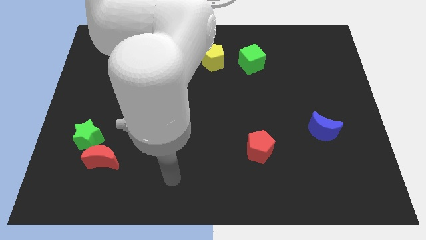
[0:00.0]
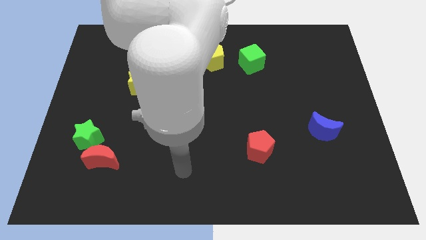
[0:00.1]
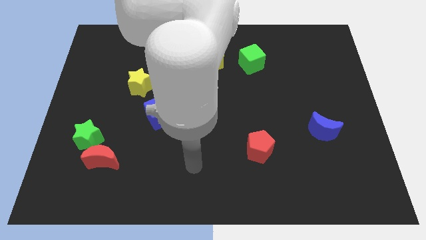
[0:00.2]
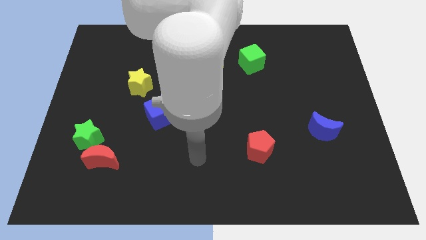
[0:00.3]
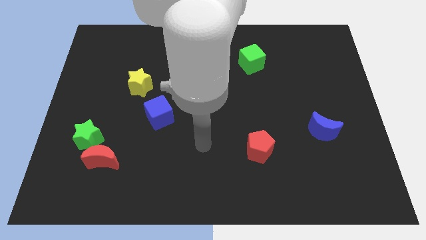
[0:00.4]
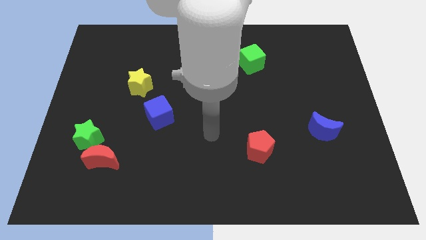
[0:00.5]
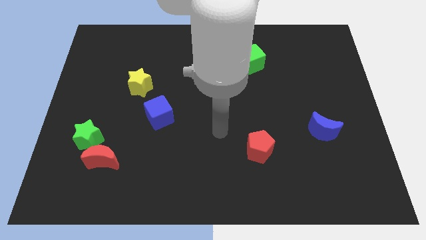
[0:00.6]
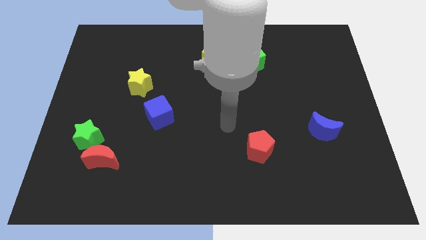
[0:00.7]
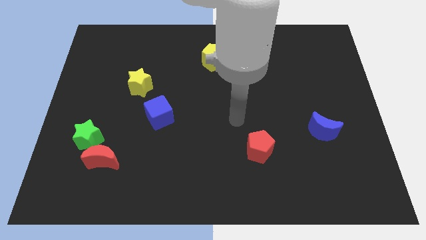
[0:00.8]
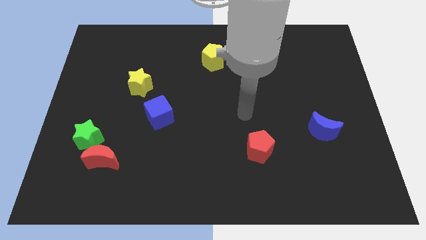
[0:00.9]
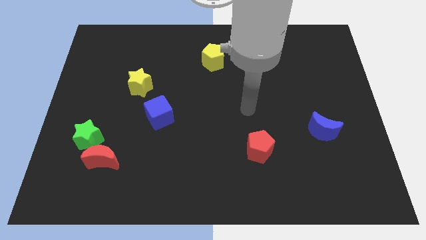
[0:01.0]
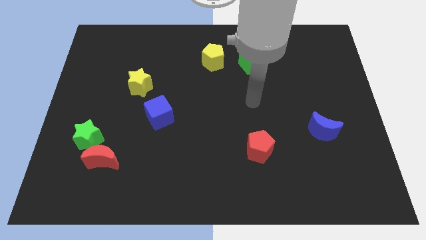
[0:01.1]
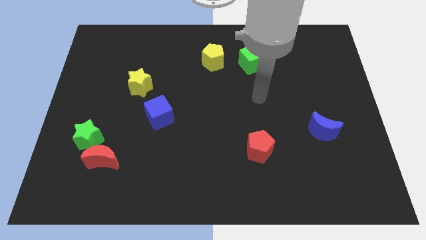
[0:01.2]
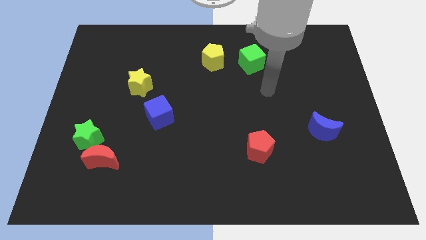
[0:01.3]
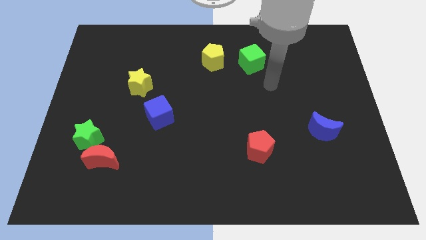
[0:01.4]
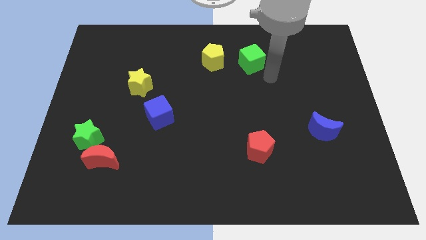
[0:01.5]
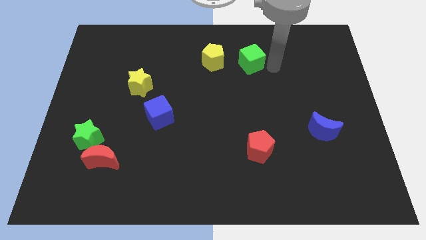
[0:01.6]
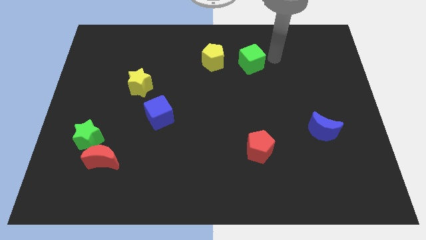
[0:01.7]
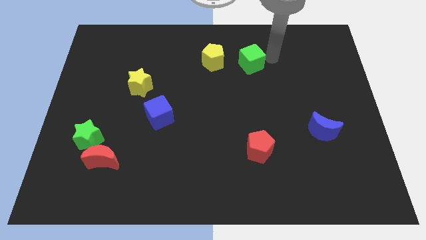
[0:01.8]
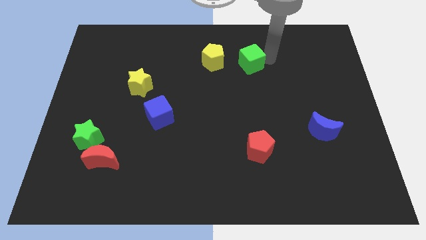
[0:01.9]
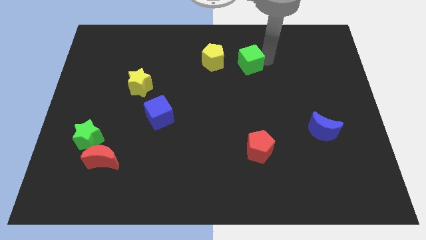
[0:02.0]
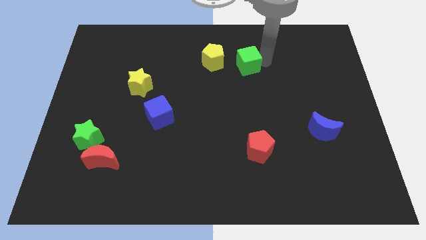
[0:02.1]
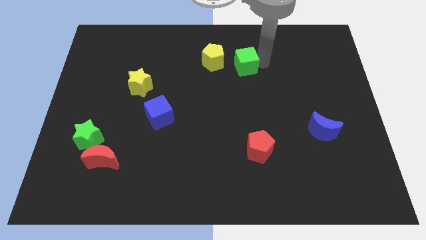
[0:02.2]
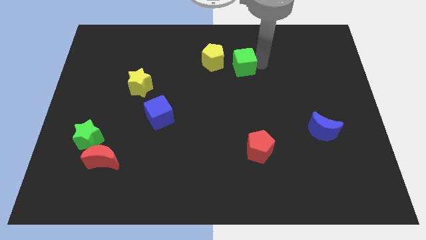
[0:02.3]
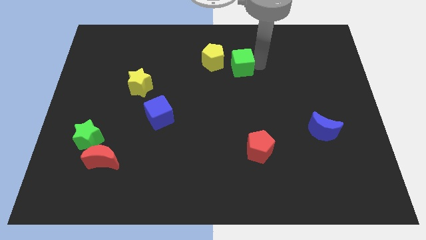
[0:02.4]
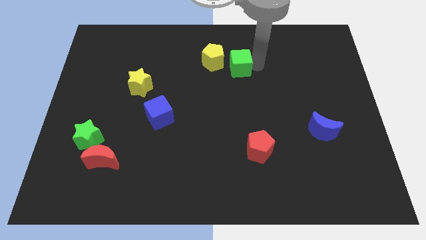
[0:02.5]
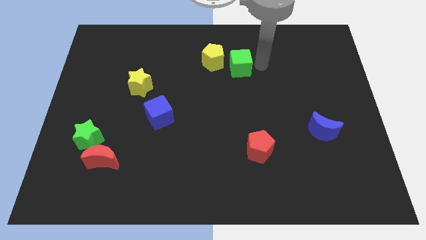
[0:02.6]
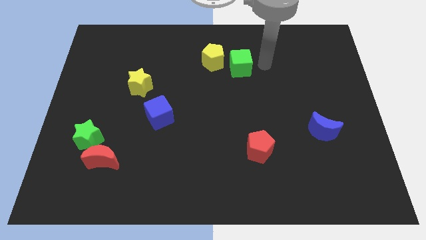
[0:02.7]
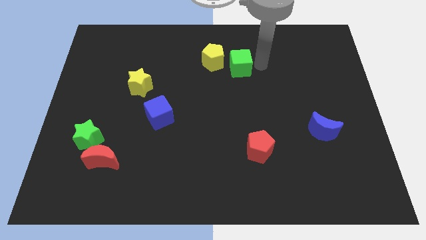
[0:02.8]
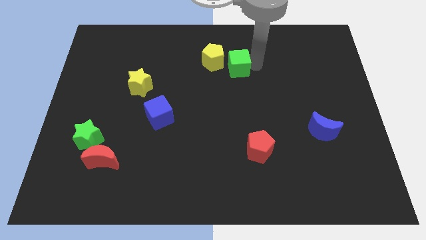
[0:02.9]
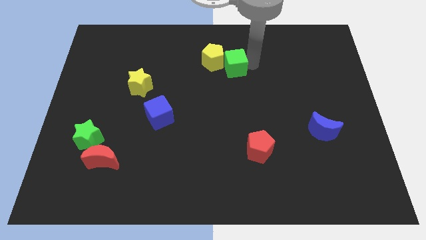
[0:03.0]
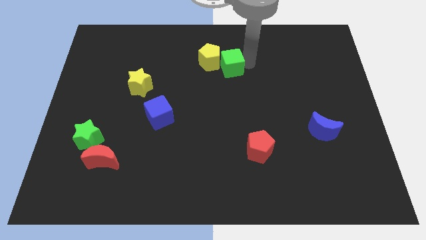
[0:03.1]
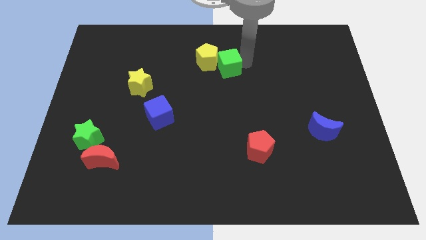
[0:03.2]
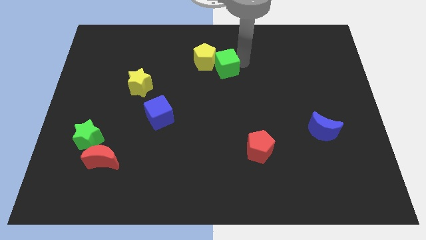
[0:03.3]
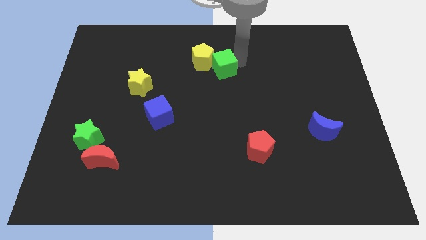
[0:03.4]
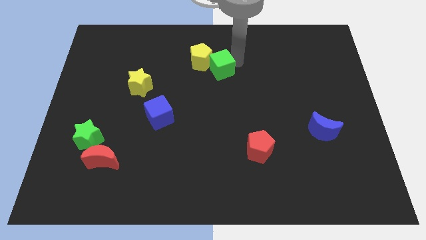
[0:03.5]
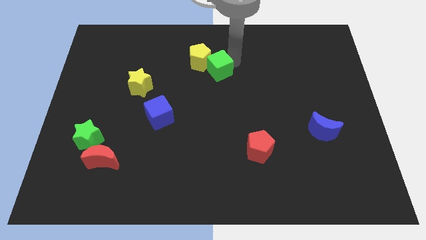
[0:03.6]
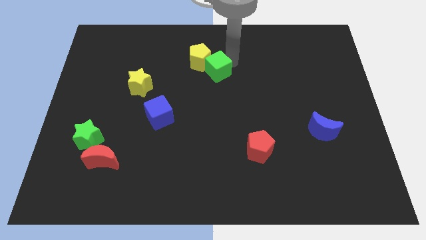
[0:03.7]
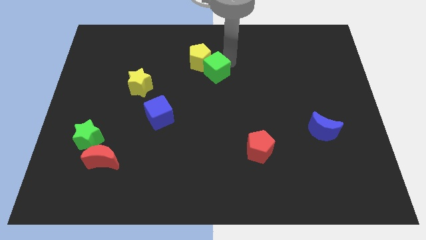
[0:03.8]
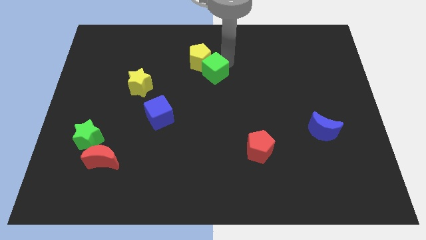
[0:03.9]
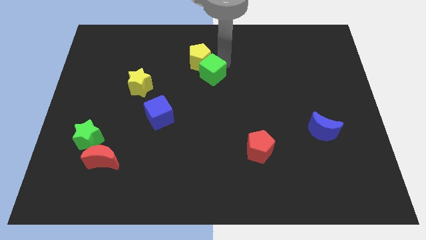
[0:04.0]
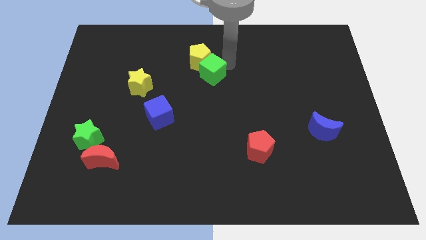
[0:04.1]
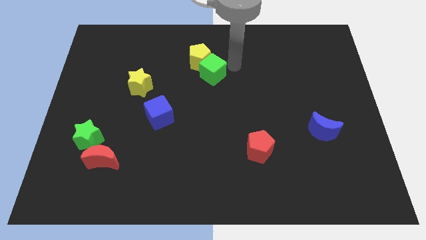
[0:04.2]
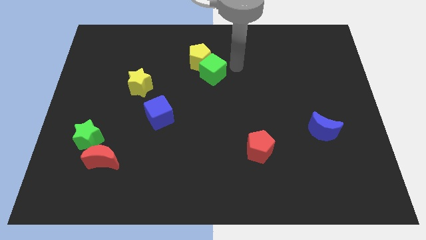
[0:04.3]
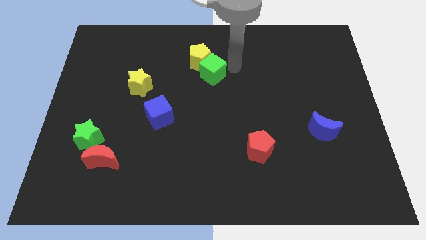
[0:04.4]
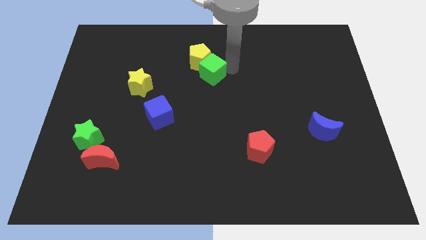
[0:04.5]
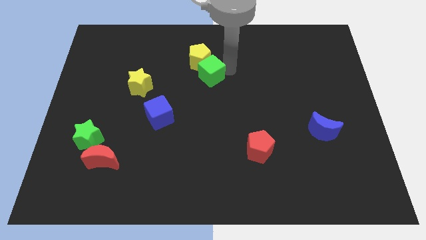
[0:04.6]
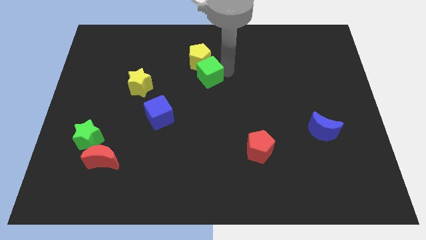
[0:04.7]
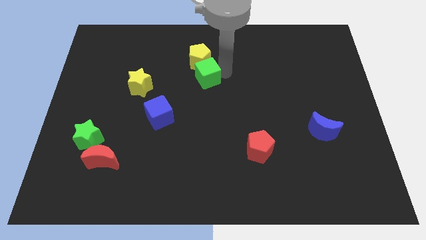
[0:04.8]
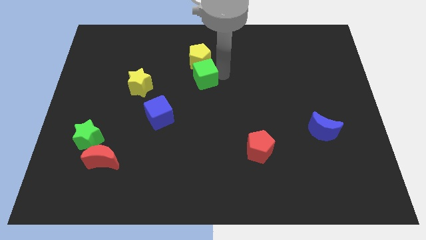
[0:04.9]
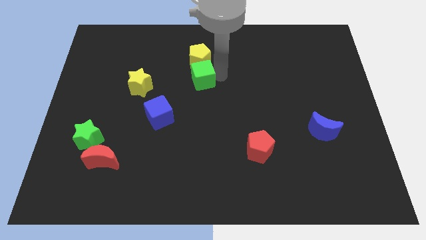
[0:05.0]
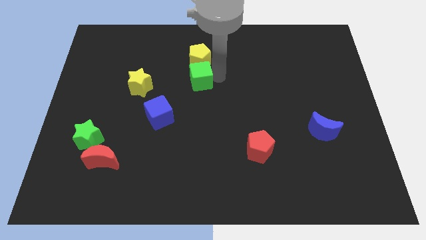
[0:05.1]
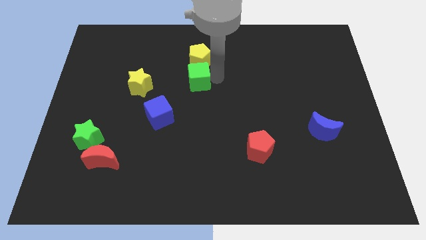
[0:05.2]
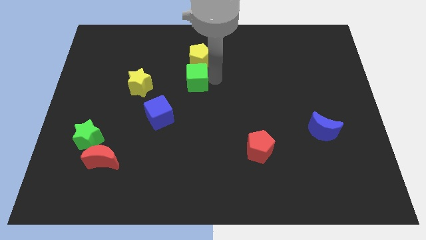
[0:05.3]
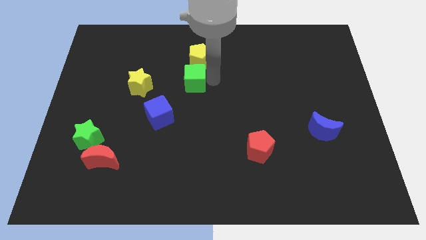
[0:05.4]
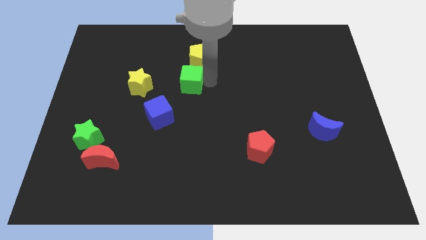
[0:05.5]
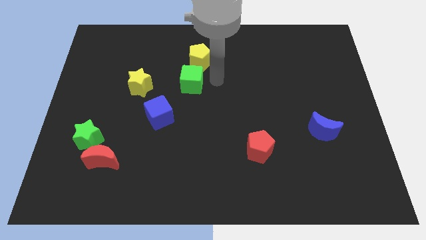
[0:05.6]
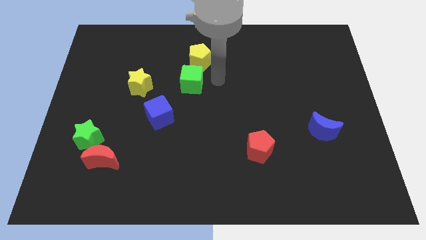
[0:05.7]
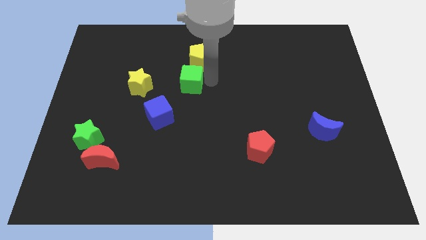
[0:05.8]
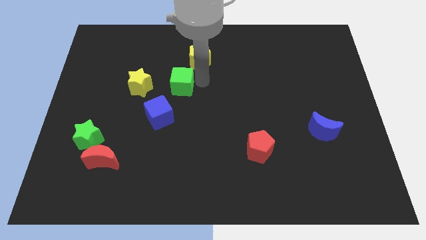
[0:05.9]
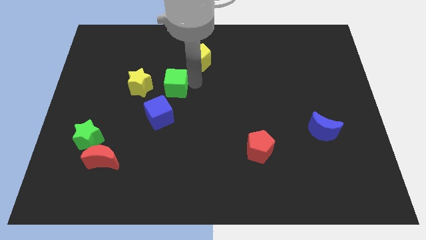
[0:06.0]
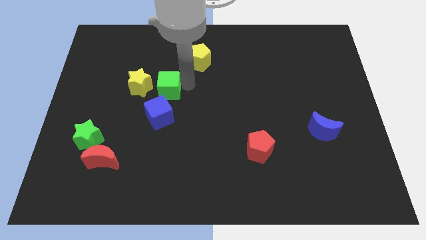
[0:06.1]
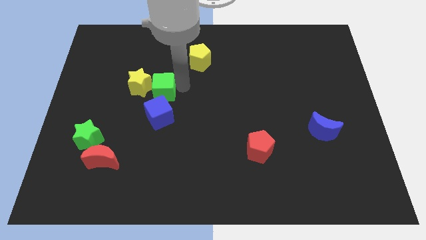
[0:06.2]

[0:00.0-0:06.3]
push the green cube next to the yellow star

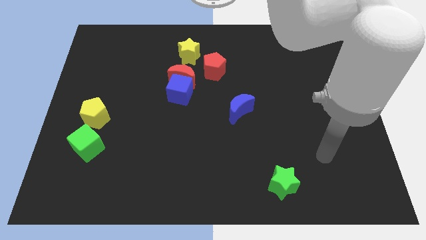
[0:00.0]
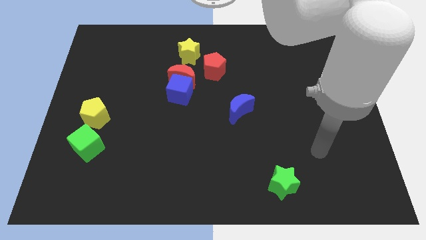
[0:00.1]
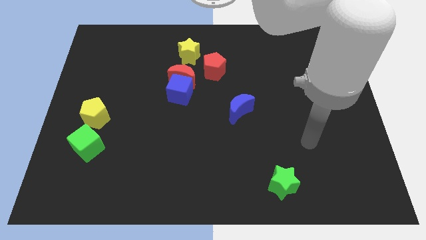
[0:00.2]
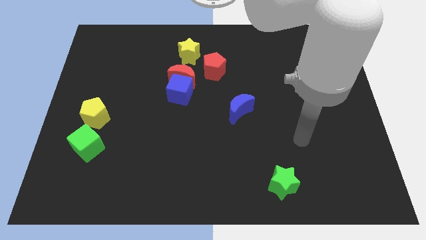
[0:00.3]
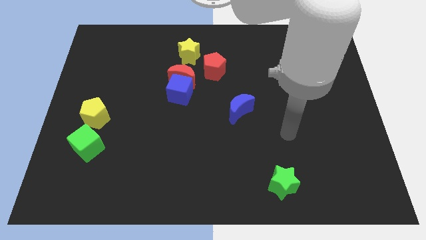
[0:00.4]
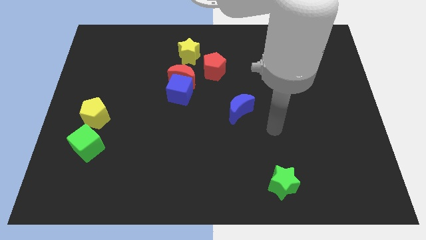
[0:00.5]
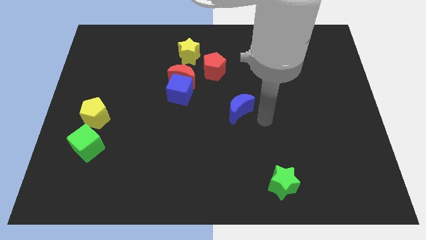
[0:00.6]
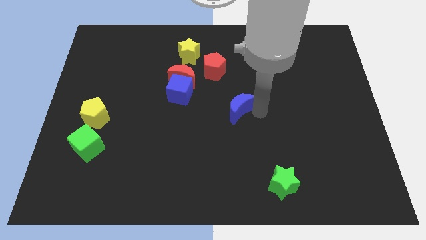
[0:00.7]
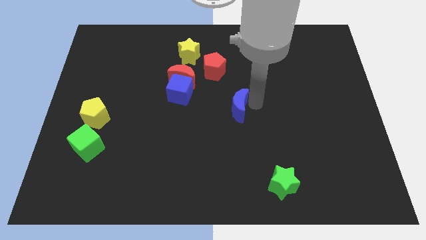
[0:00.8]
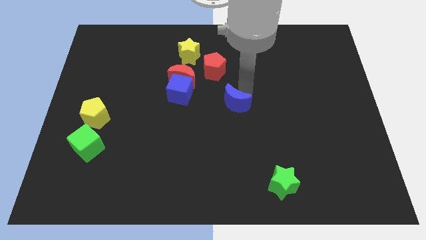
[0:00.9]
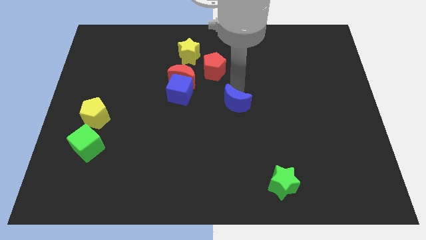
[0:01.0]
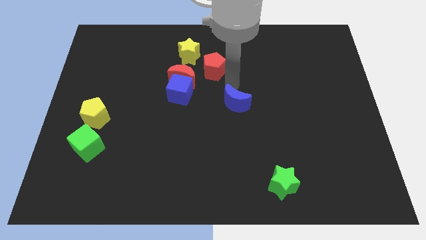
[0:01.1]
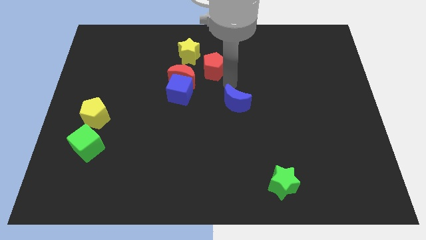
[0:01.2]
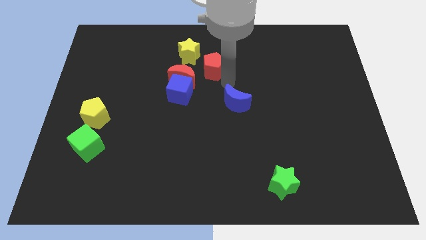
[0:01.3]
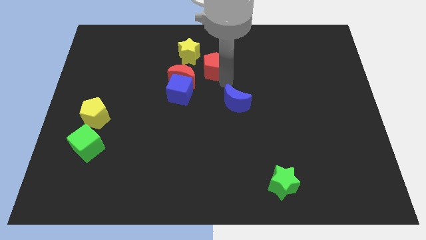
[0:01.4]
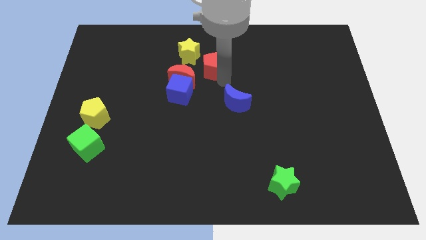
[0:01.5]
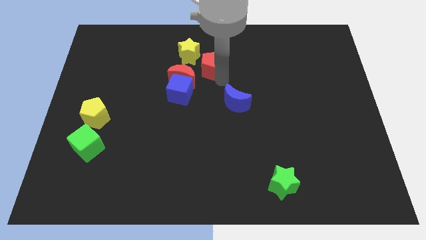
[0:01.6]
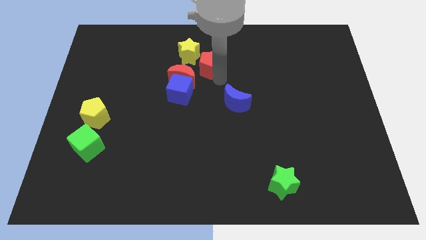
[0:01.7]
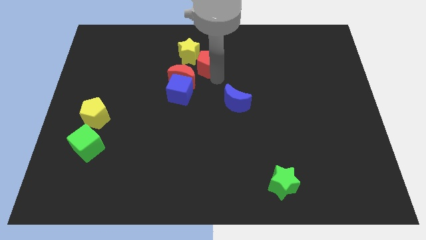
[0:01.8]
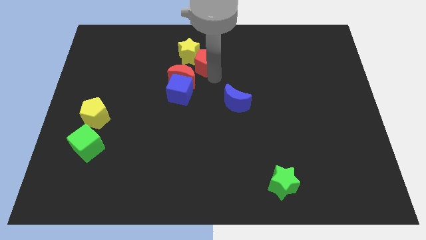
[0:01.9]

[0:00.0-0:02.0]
move the red pentagon next to the yellow star
